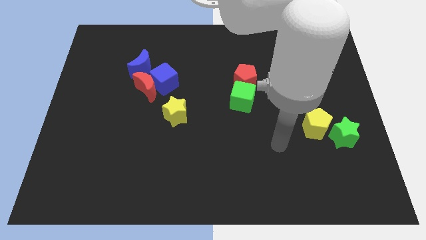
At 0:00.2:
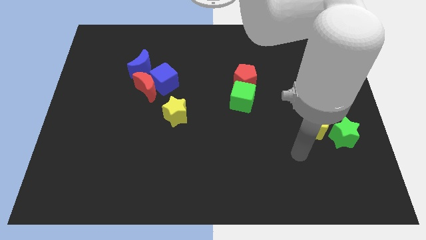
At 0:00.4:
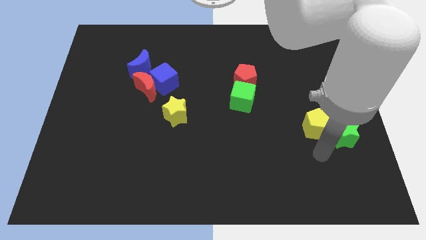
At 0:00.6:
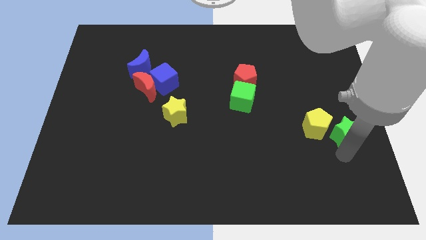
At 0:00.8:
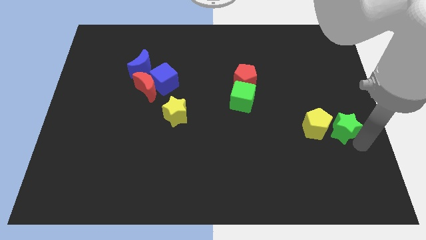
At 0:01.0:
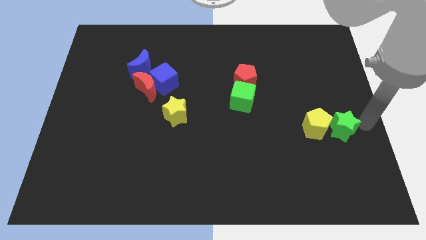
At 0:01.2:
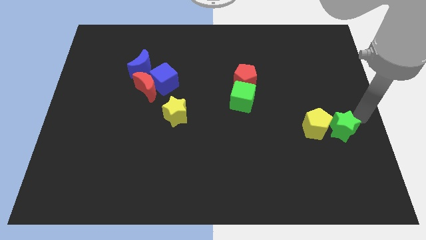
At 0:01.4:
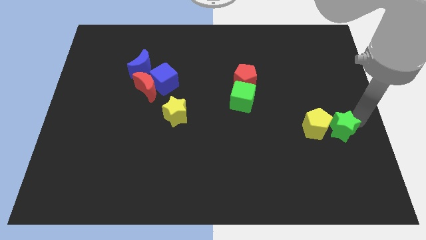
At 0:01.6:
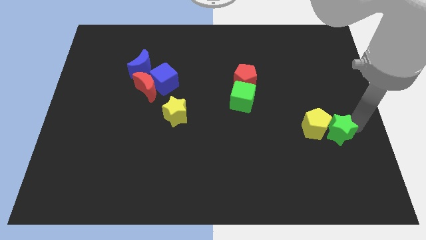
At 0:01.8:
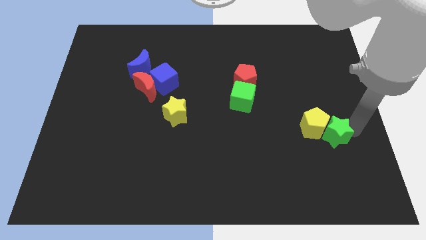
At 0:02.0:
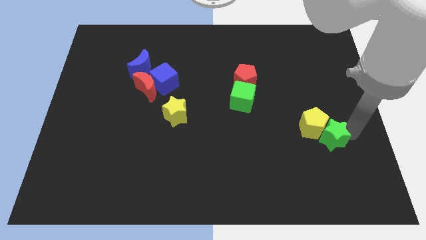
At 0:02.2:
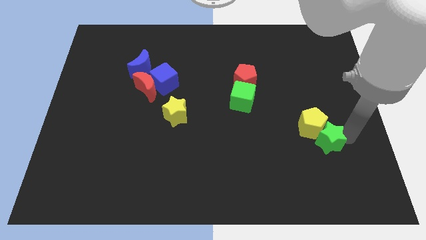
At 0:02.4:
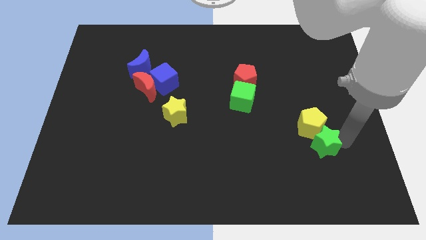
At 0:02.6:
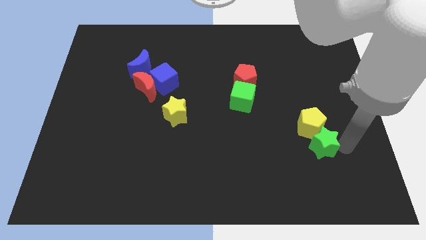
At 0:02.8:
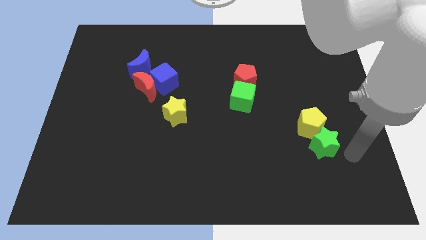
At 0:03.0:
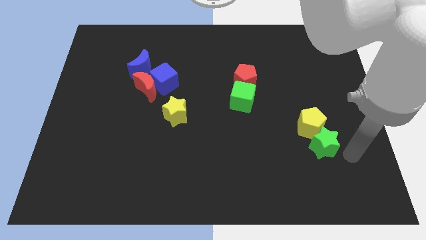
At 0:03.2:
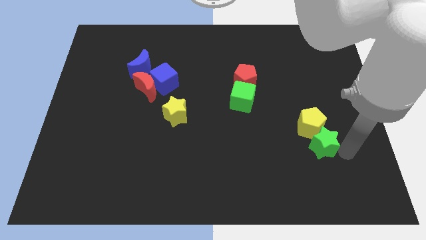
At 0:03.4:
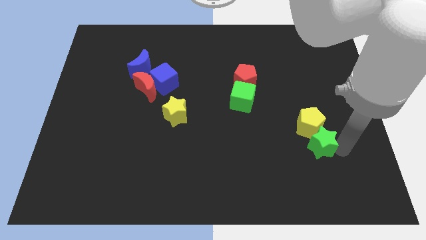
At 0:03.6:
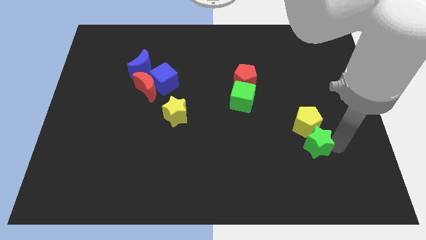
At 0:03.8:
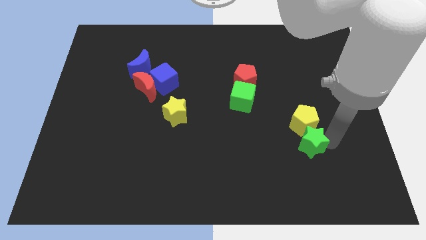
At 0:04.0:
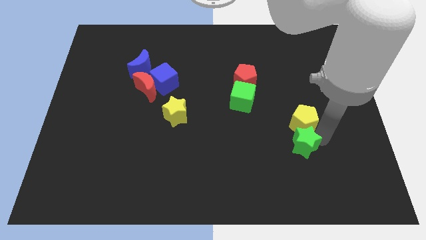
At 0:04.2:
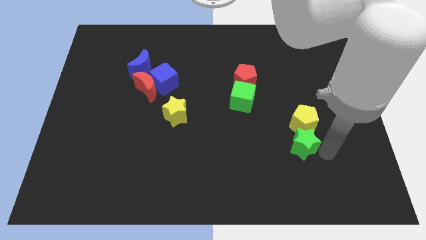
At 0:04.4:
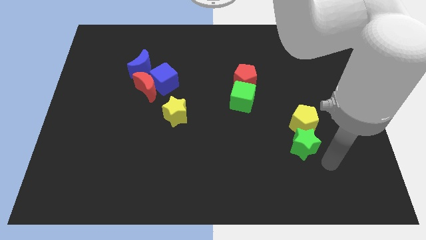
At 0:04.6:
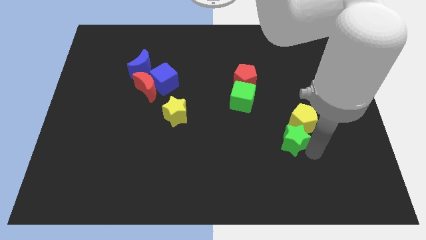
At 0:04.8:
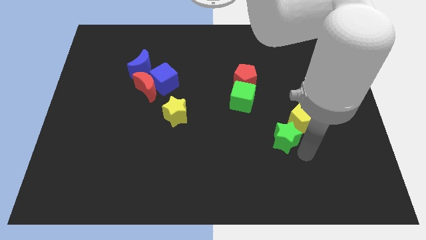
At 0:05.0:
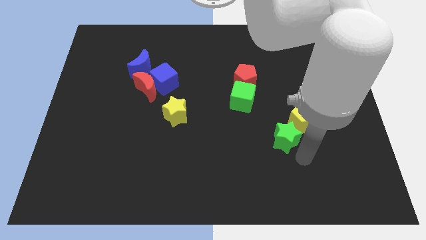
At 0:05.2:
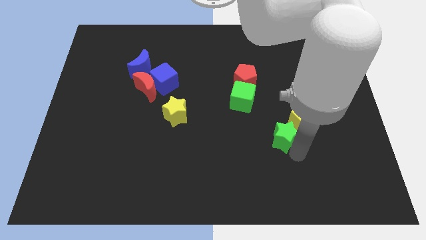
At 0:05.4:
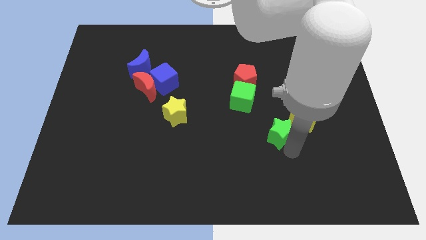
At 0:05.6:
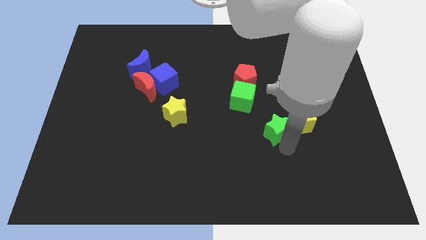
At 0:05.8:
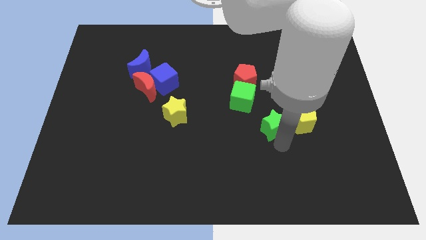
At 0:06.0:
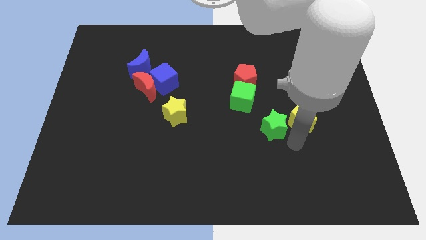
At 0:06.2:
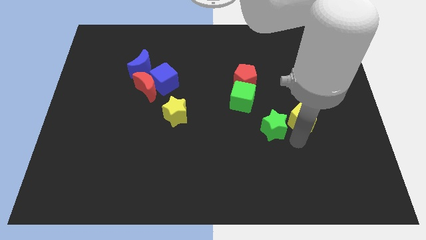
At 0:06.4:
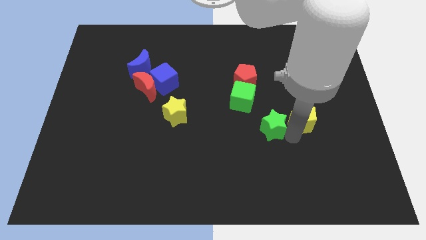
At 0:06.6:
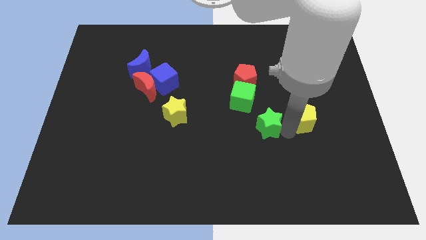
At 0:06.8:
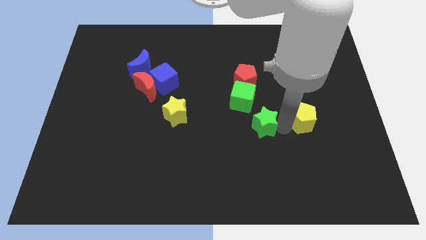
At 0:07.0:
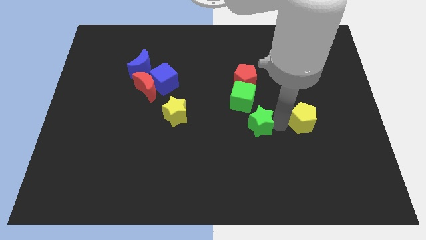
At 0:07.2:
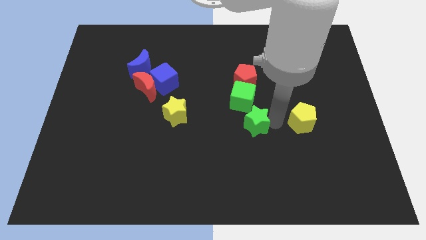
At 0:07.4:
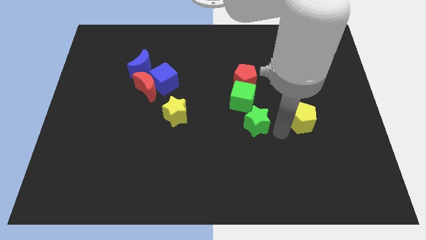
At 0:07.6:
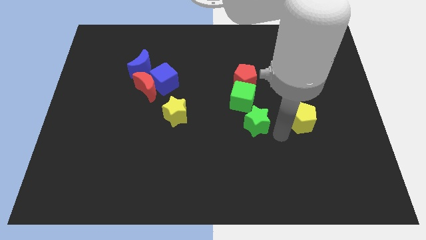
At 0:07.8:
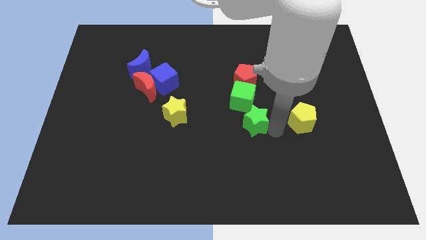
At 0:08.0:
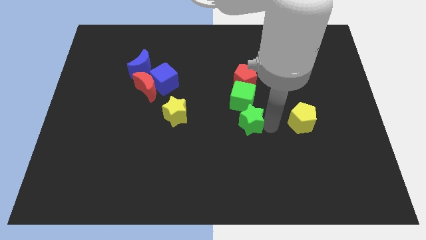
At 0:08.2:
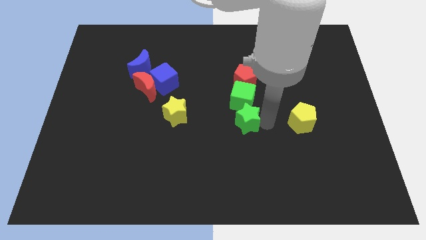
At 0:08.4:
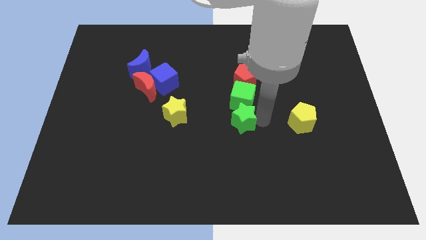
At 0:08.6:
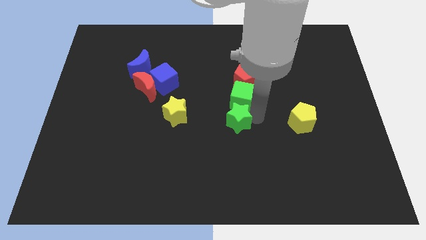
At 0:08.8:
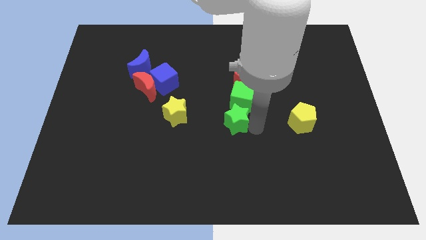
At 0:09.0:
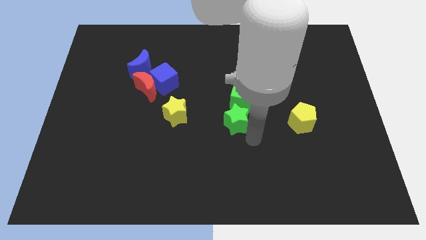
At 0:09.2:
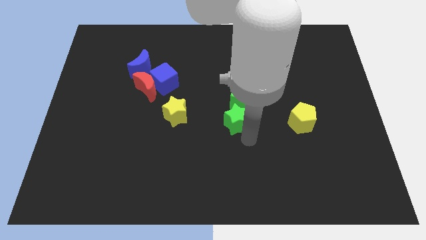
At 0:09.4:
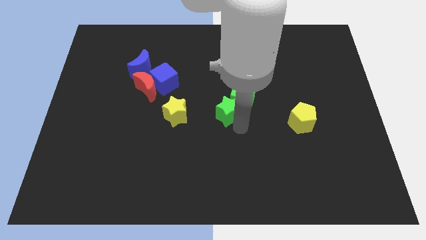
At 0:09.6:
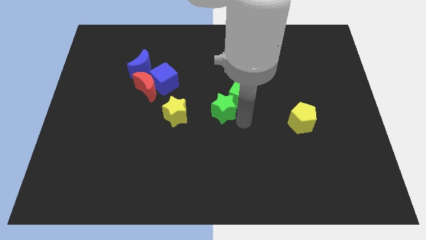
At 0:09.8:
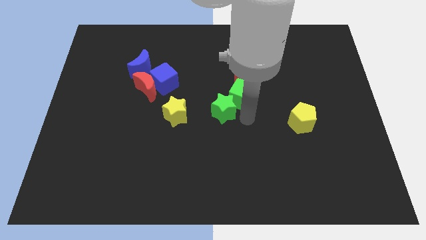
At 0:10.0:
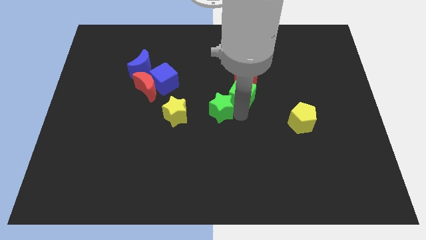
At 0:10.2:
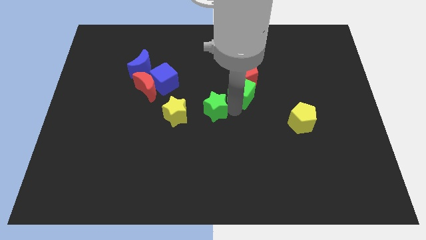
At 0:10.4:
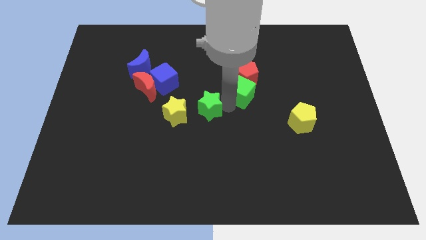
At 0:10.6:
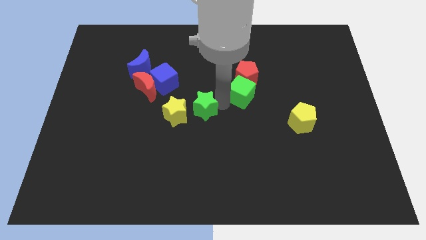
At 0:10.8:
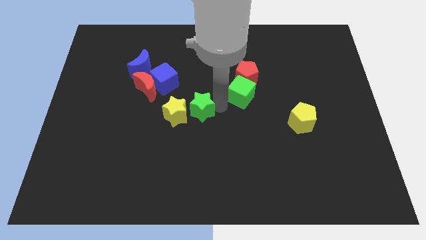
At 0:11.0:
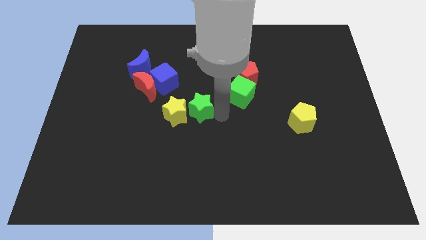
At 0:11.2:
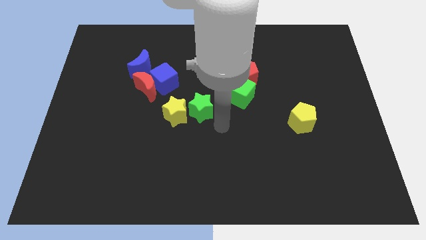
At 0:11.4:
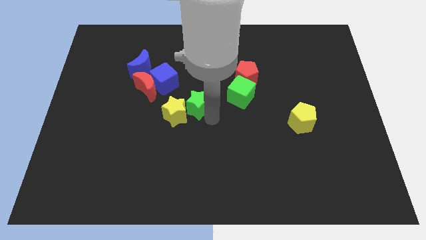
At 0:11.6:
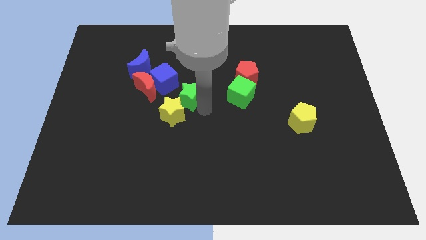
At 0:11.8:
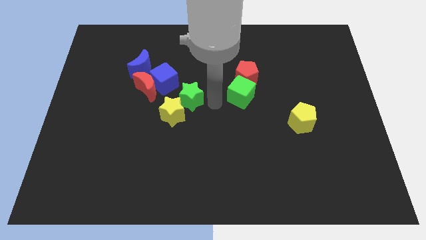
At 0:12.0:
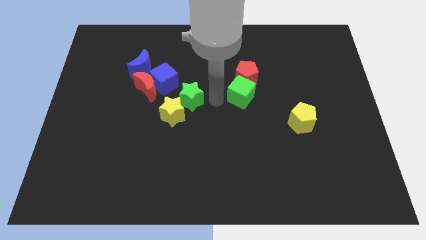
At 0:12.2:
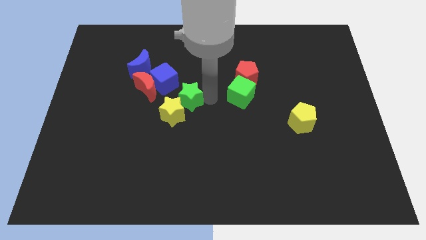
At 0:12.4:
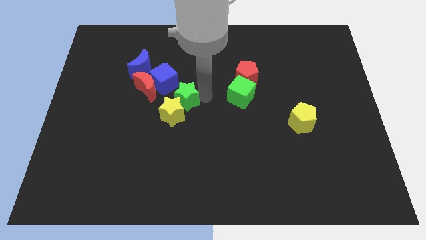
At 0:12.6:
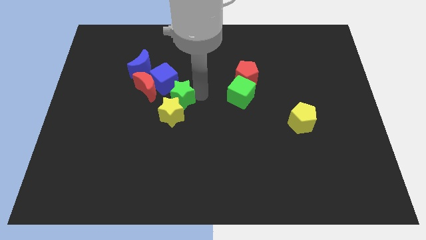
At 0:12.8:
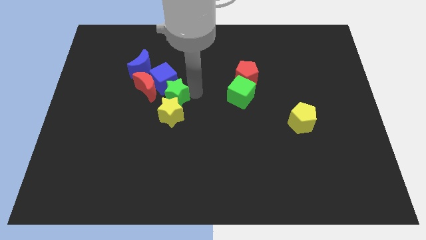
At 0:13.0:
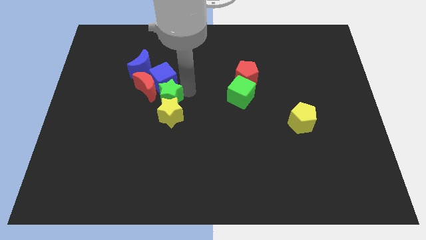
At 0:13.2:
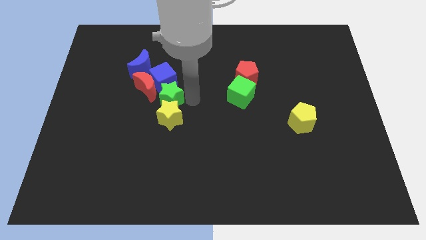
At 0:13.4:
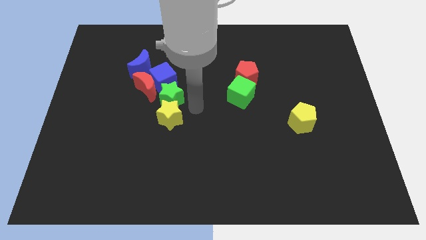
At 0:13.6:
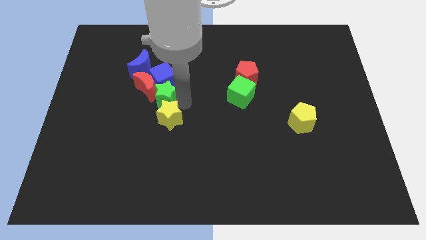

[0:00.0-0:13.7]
push the green star next to the red moon
